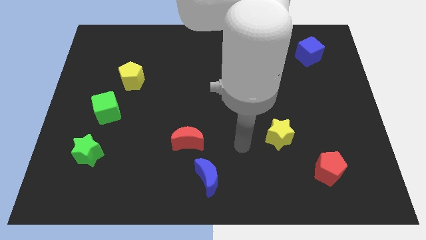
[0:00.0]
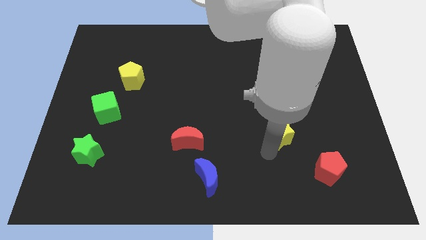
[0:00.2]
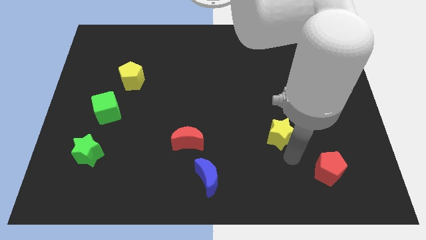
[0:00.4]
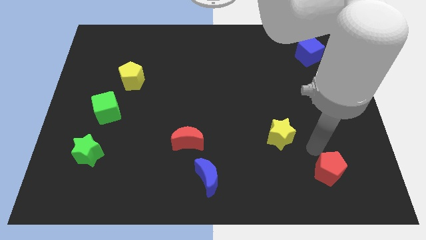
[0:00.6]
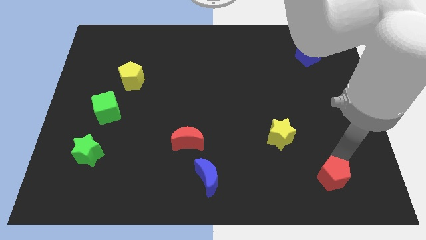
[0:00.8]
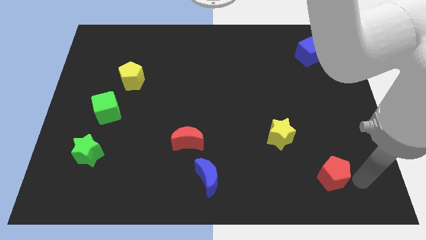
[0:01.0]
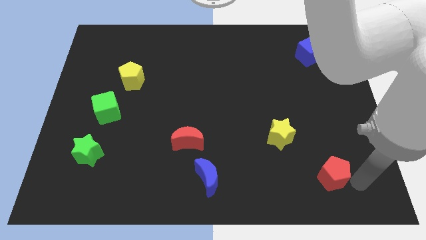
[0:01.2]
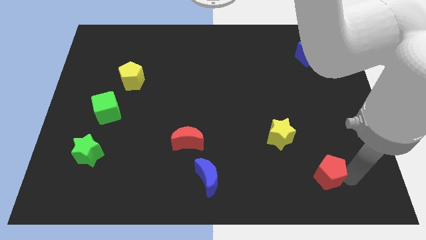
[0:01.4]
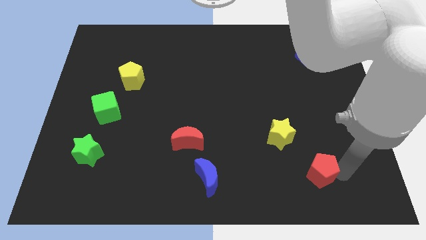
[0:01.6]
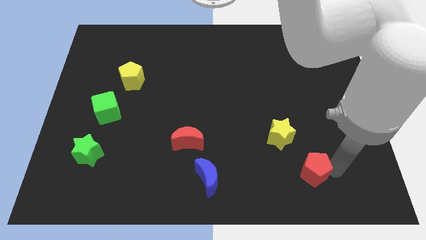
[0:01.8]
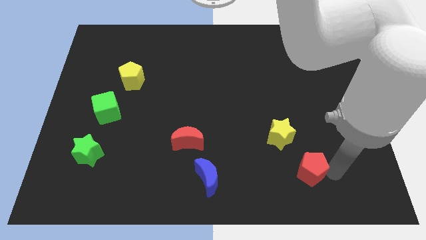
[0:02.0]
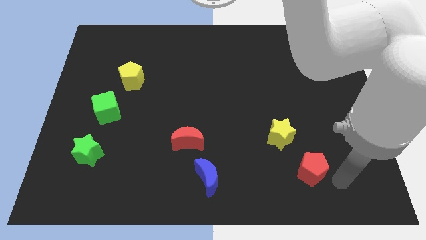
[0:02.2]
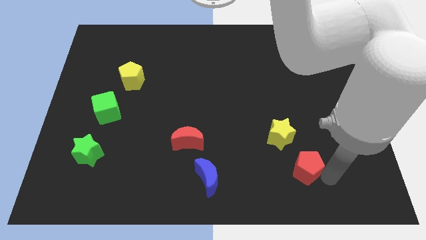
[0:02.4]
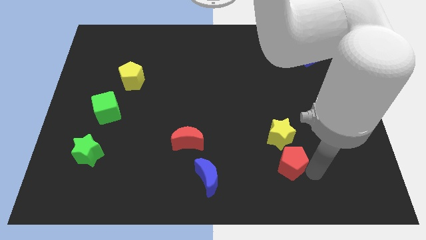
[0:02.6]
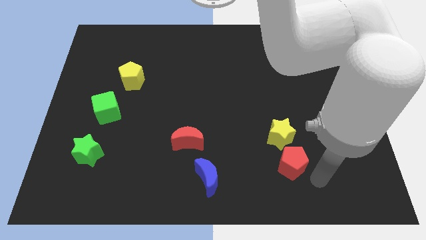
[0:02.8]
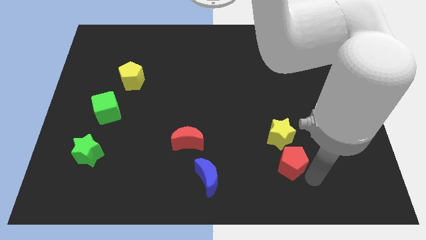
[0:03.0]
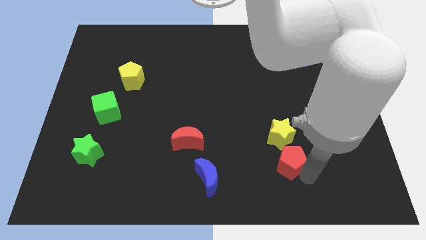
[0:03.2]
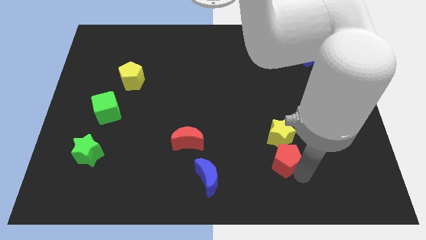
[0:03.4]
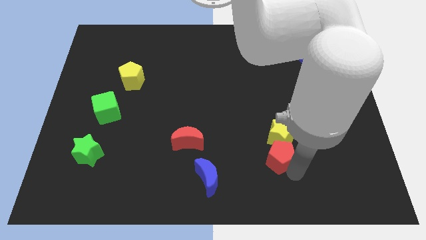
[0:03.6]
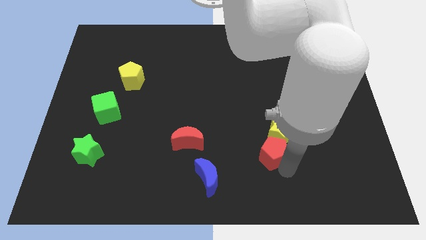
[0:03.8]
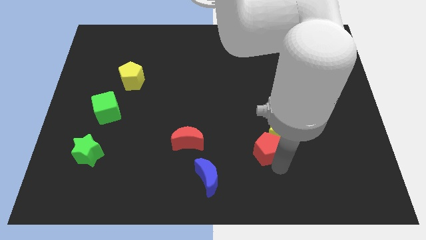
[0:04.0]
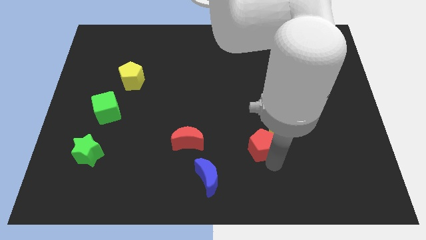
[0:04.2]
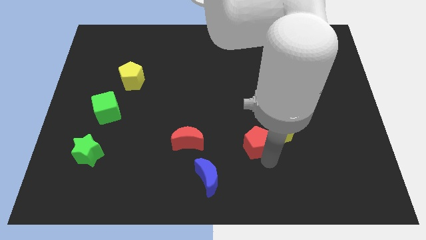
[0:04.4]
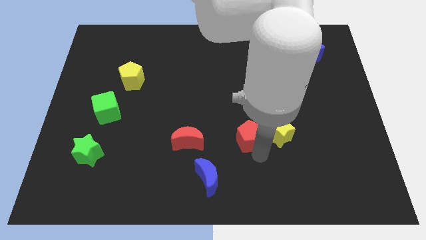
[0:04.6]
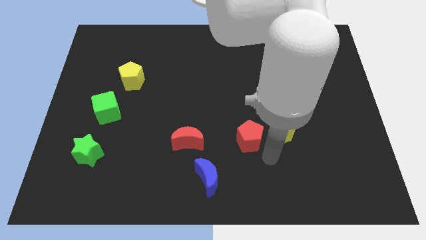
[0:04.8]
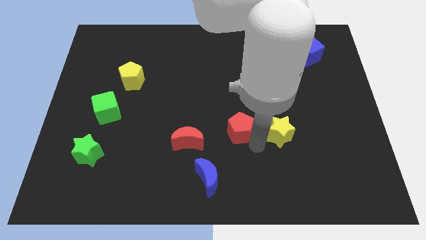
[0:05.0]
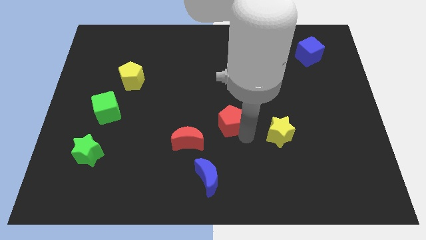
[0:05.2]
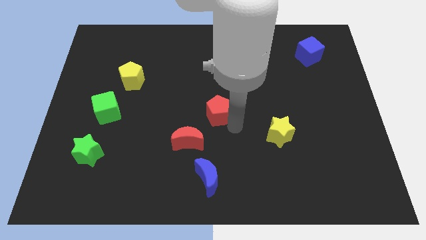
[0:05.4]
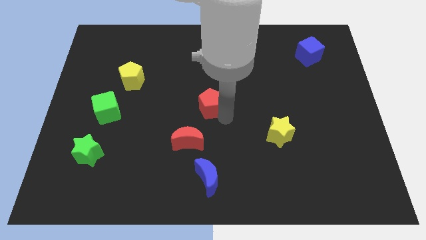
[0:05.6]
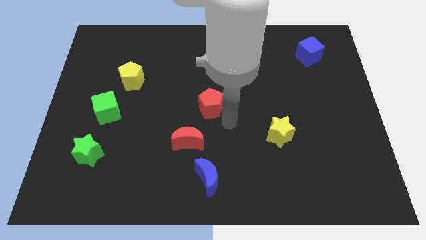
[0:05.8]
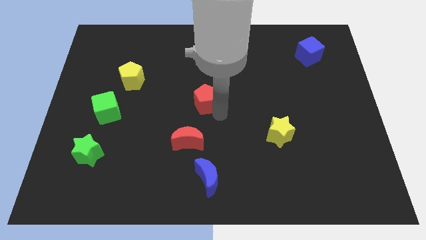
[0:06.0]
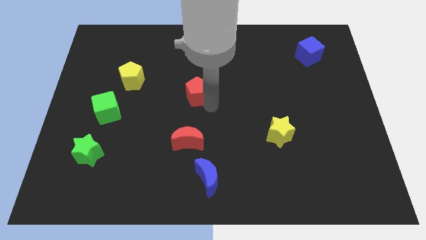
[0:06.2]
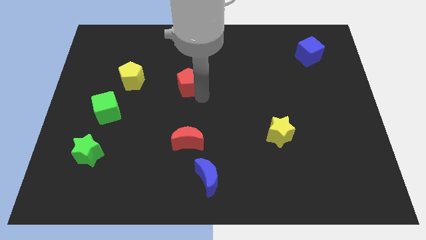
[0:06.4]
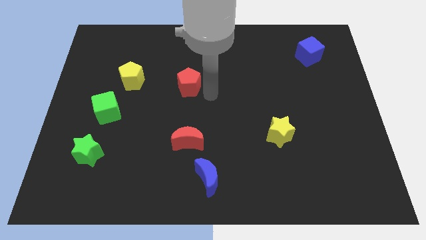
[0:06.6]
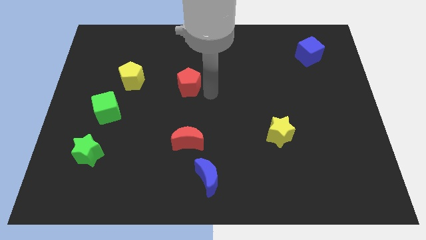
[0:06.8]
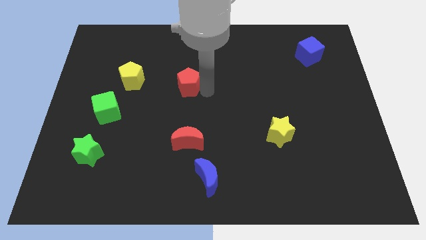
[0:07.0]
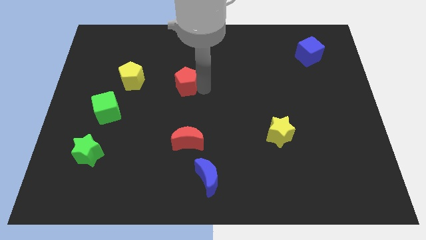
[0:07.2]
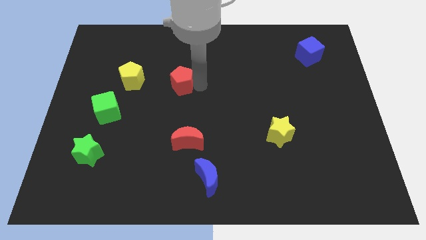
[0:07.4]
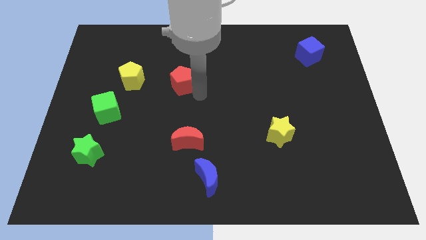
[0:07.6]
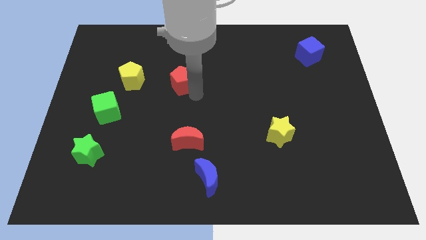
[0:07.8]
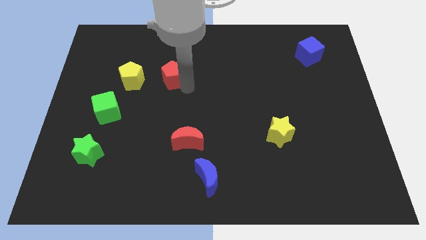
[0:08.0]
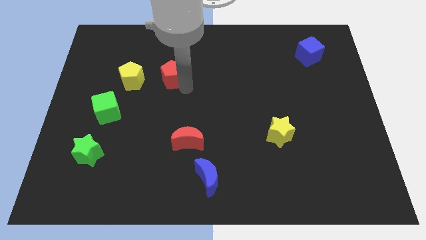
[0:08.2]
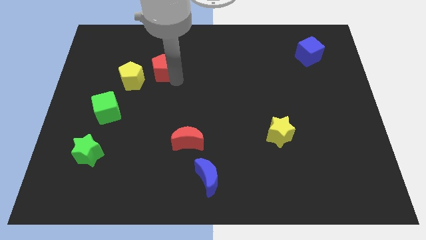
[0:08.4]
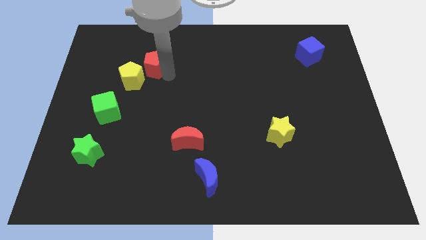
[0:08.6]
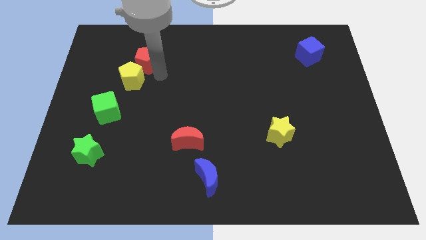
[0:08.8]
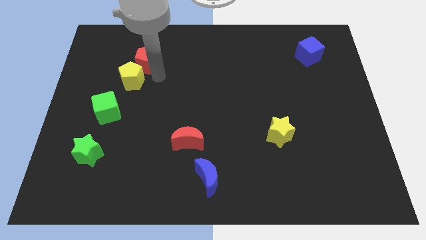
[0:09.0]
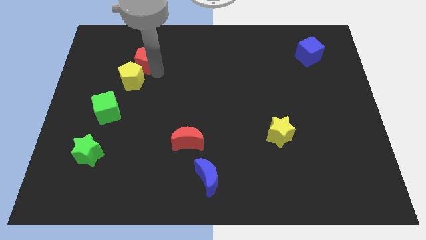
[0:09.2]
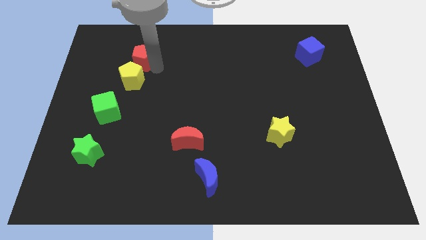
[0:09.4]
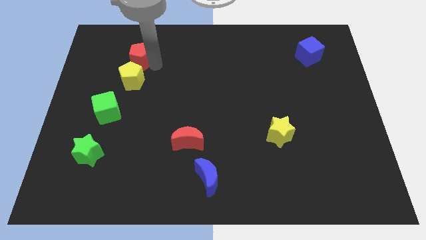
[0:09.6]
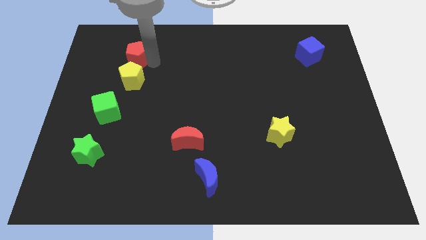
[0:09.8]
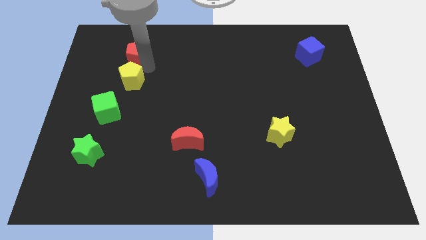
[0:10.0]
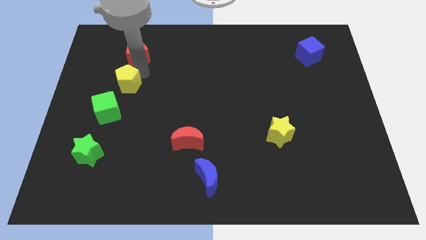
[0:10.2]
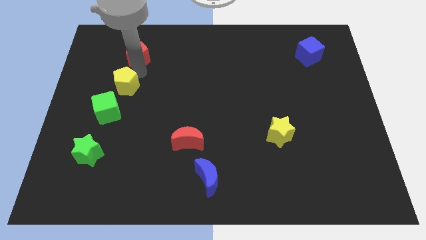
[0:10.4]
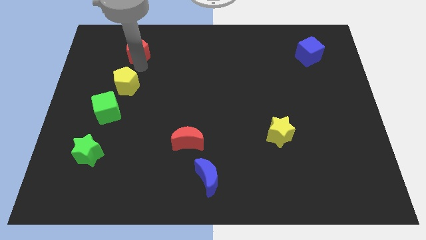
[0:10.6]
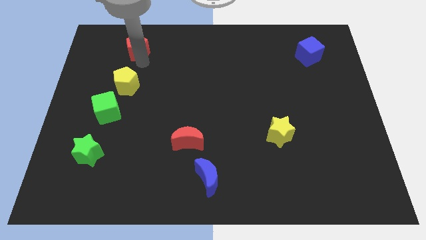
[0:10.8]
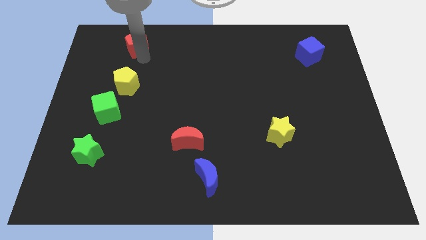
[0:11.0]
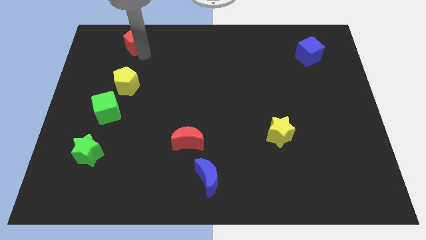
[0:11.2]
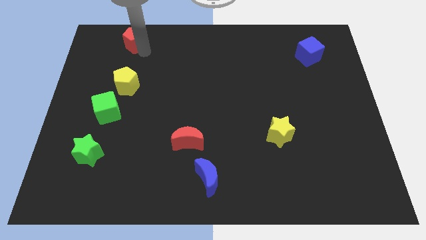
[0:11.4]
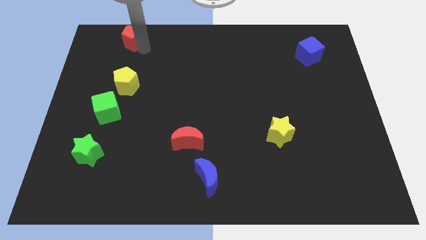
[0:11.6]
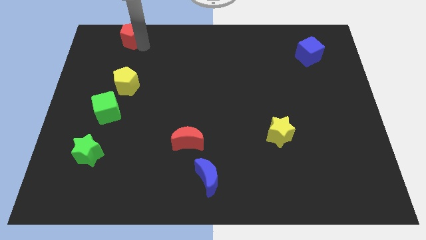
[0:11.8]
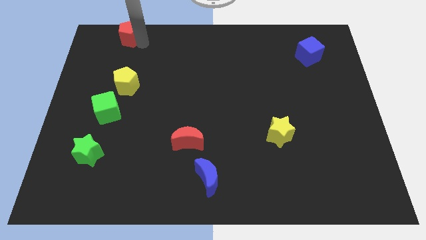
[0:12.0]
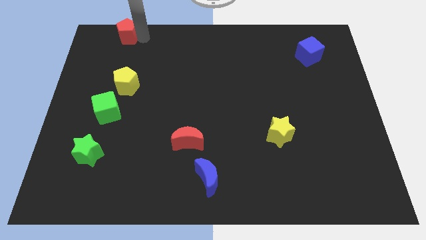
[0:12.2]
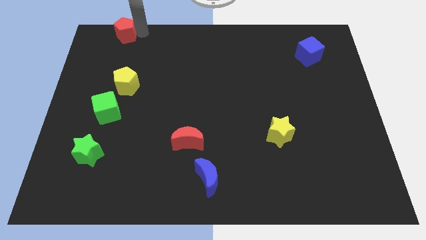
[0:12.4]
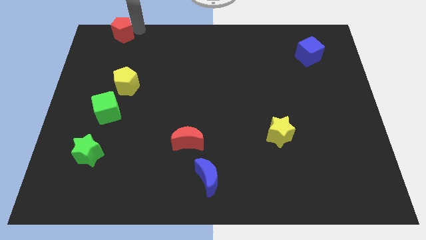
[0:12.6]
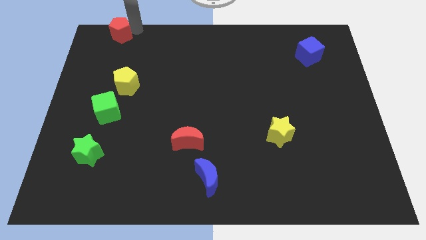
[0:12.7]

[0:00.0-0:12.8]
move the red pentagon to the top left corner
